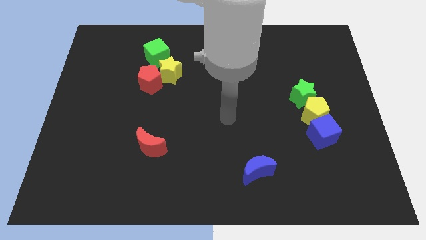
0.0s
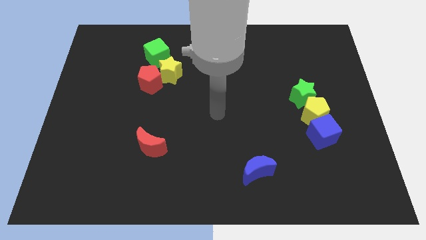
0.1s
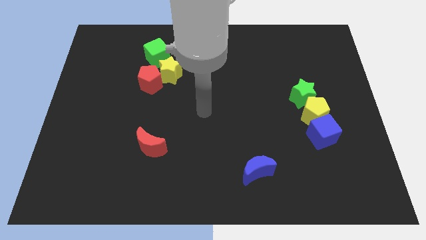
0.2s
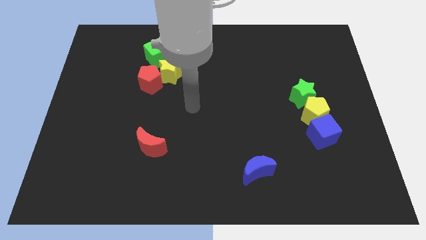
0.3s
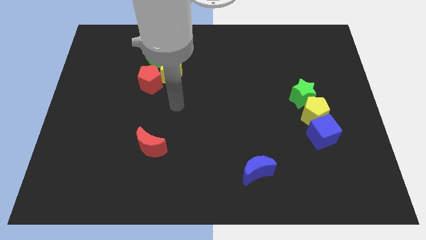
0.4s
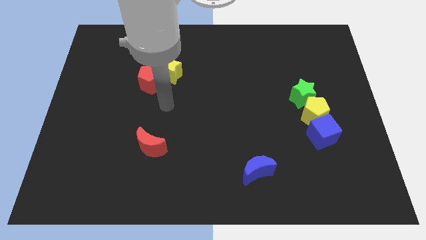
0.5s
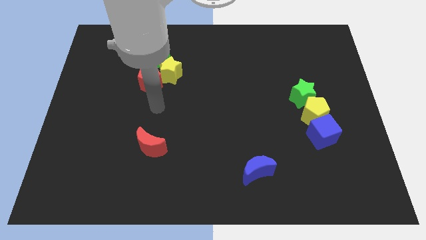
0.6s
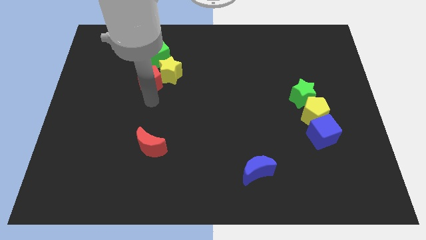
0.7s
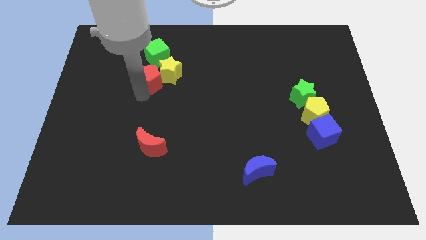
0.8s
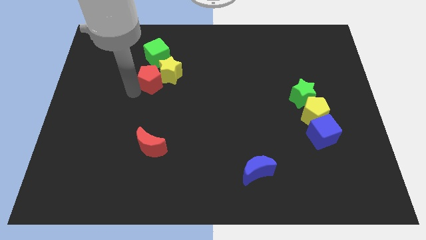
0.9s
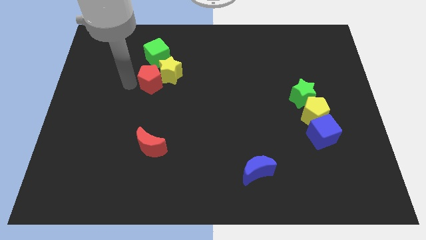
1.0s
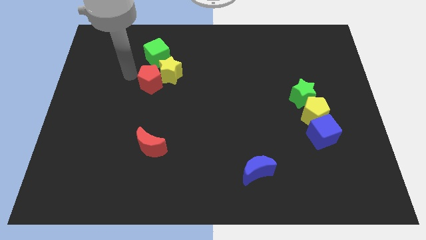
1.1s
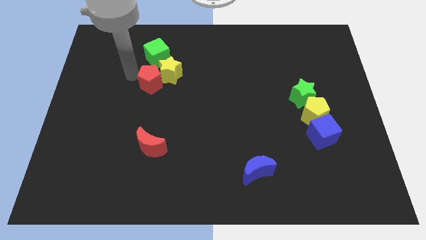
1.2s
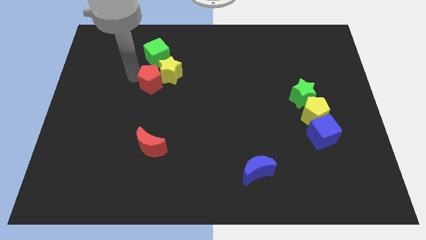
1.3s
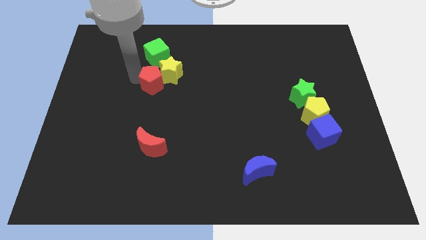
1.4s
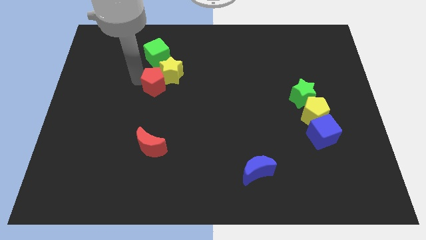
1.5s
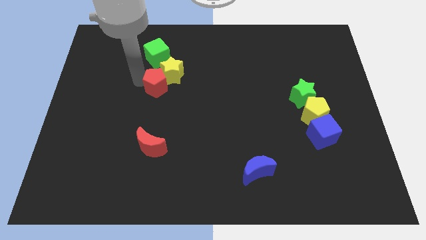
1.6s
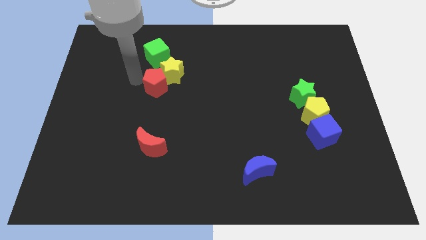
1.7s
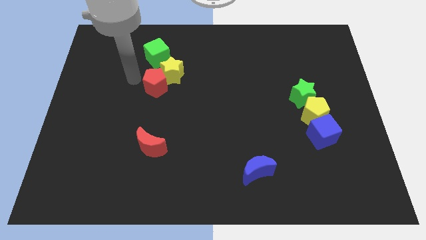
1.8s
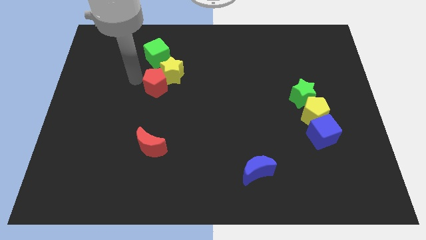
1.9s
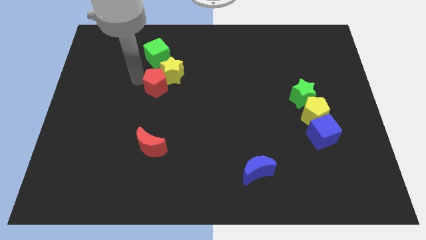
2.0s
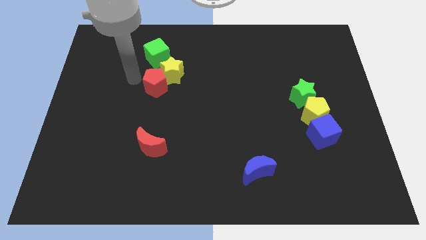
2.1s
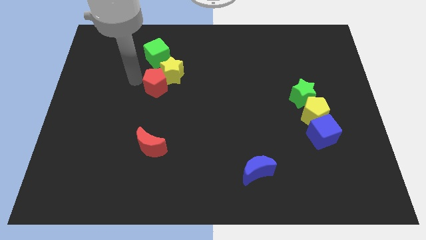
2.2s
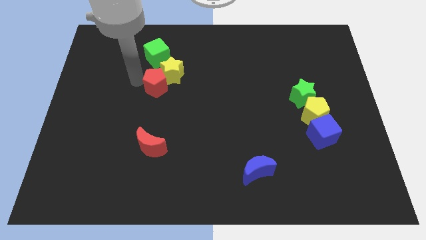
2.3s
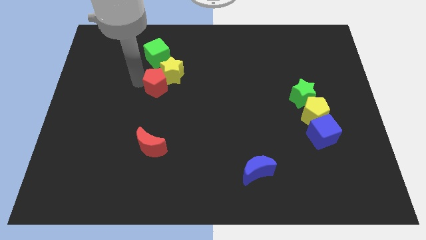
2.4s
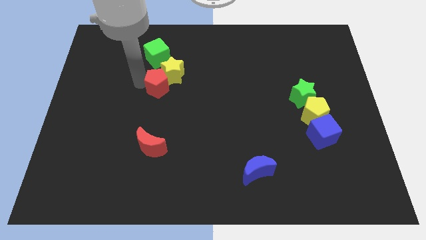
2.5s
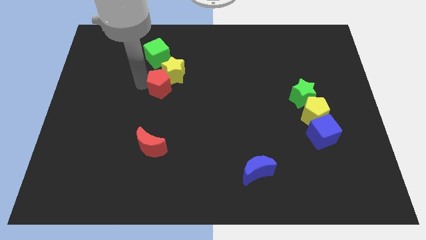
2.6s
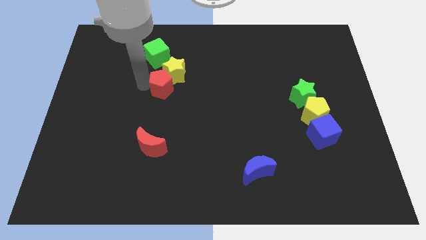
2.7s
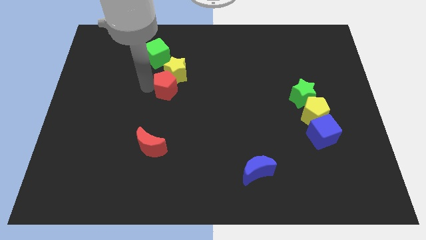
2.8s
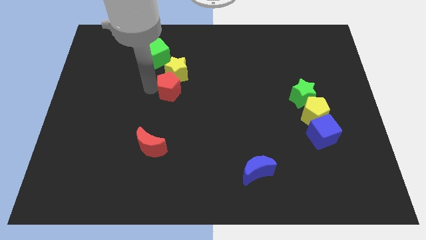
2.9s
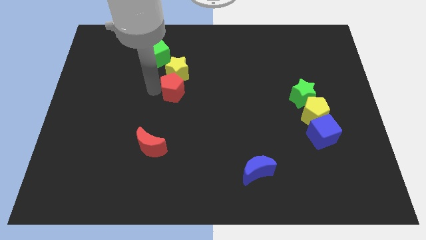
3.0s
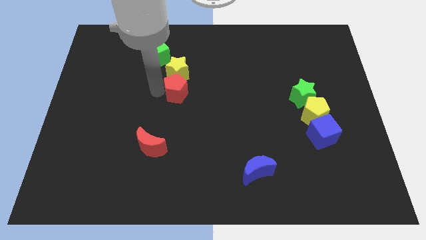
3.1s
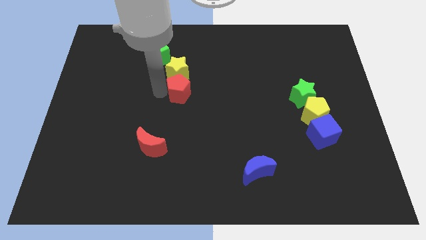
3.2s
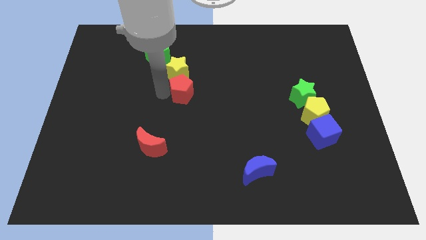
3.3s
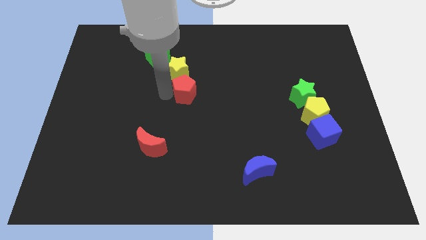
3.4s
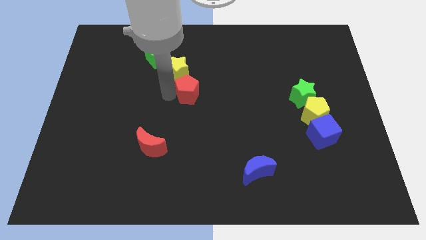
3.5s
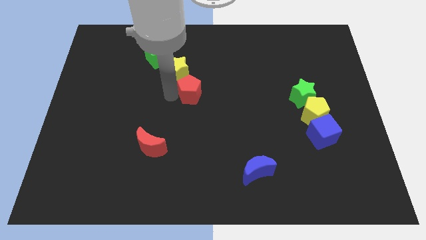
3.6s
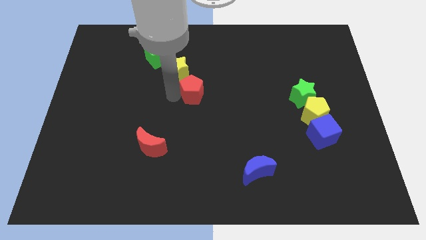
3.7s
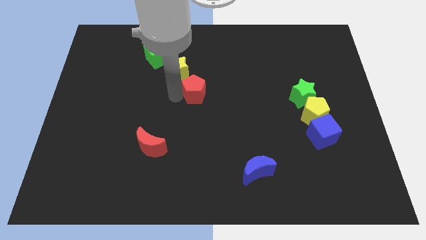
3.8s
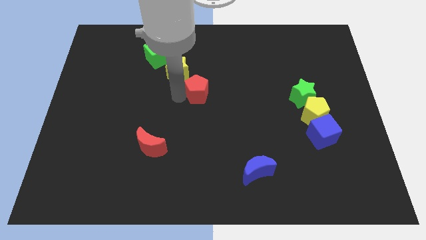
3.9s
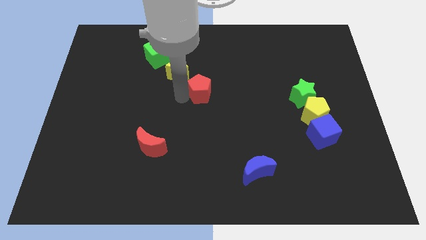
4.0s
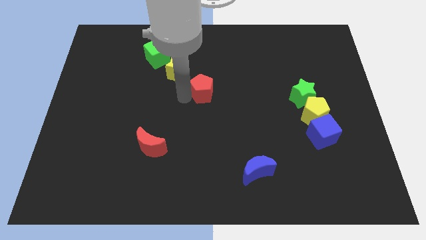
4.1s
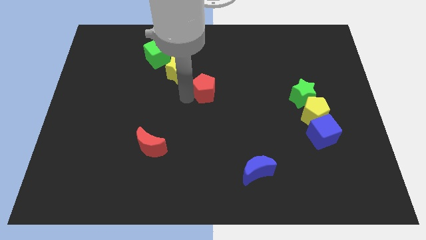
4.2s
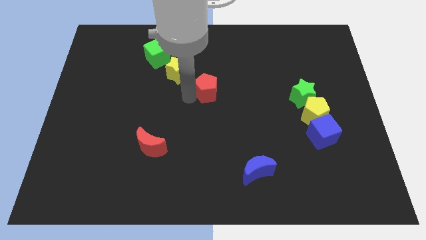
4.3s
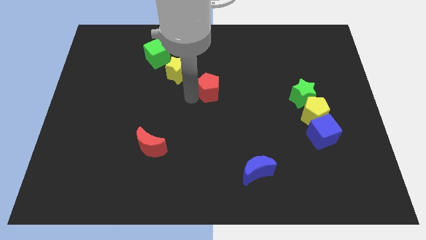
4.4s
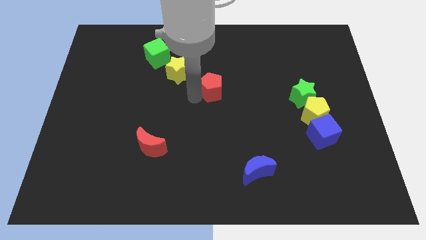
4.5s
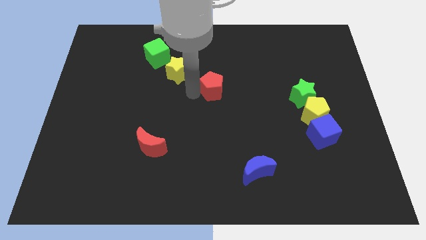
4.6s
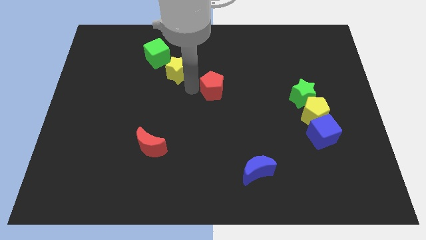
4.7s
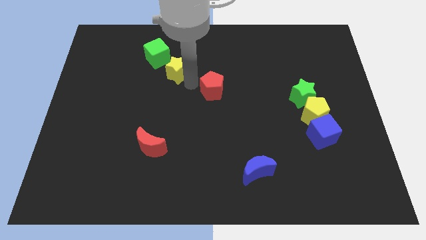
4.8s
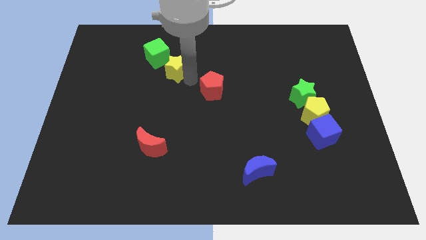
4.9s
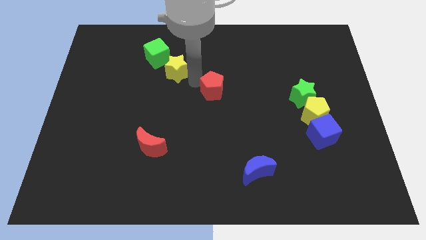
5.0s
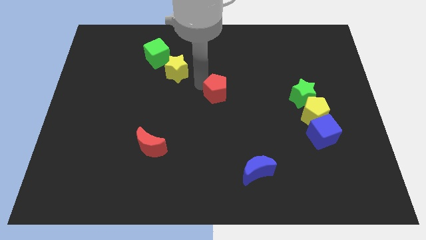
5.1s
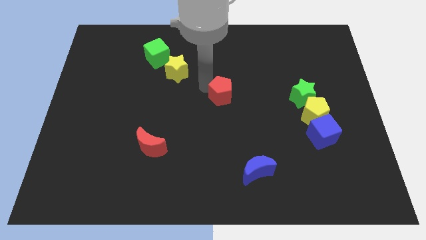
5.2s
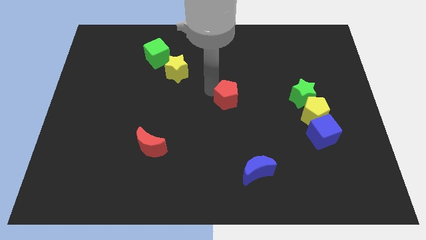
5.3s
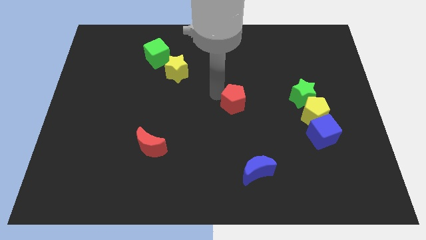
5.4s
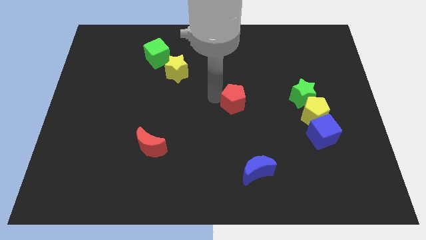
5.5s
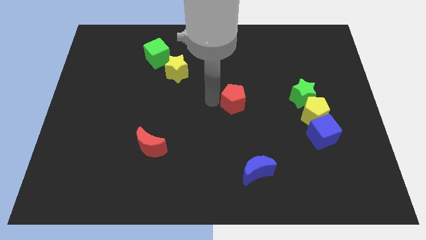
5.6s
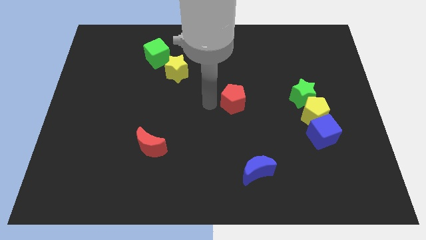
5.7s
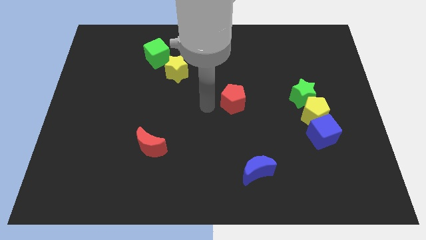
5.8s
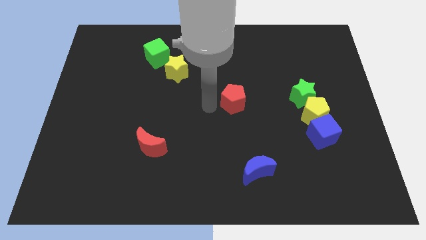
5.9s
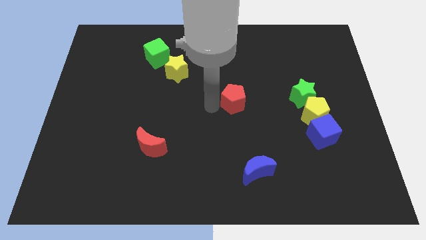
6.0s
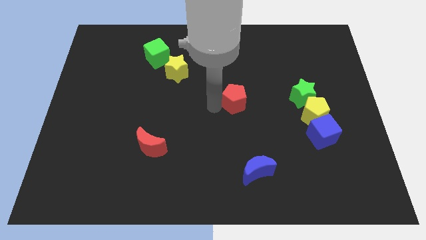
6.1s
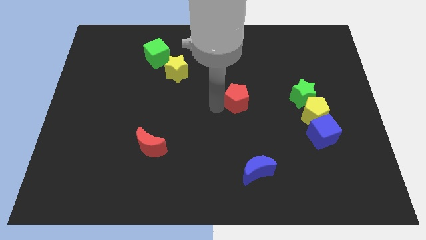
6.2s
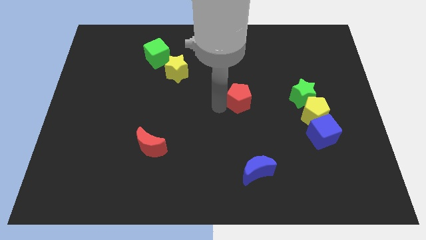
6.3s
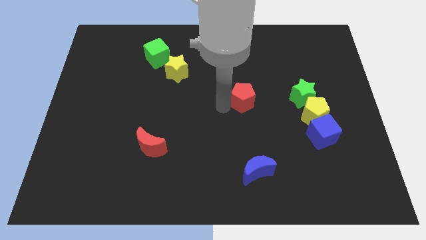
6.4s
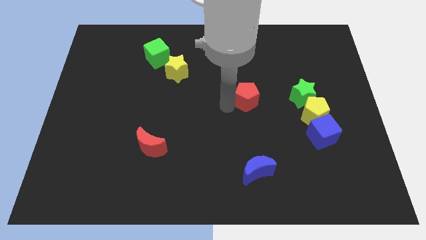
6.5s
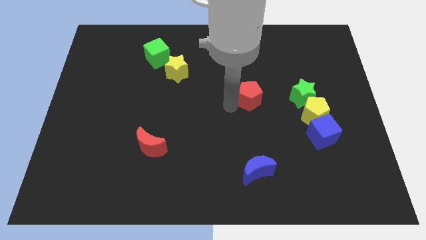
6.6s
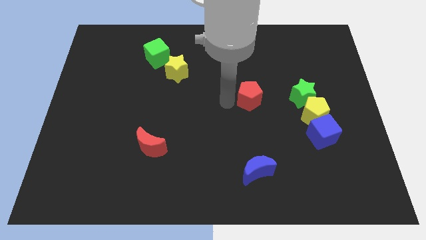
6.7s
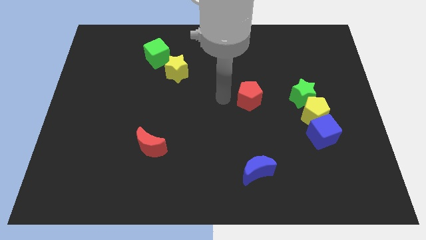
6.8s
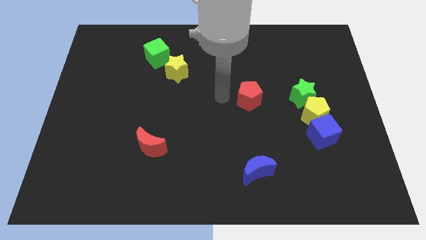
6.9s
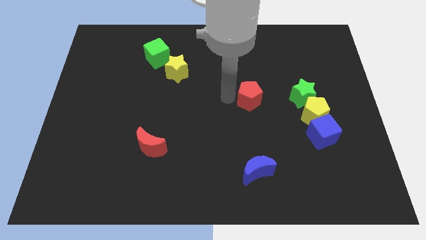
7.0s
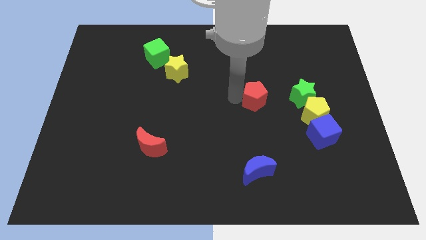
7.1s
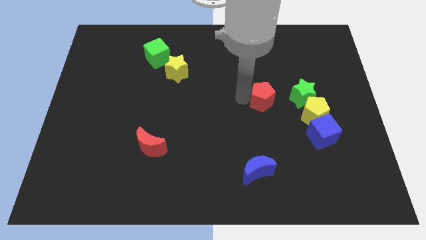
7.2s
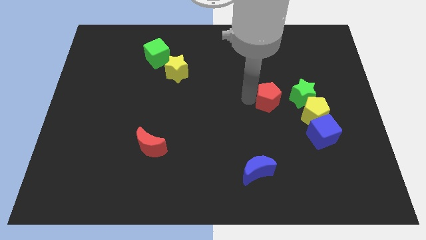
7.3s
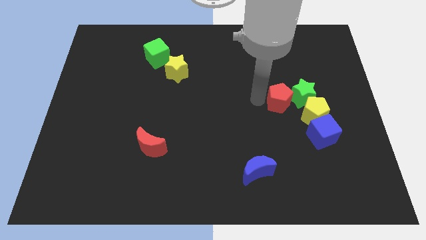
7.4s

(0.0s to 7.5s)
slide the red pentagon next to the green star
